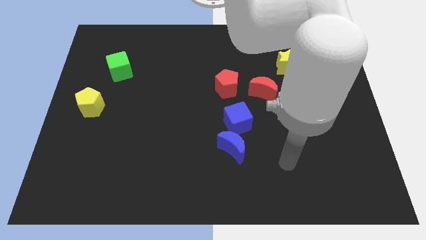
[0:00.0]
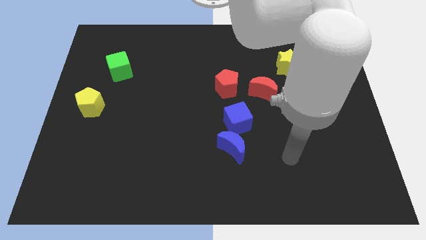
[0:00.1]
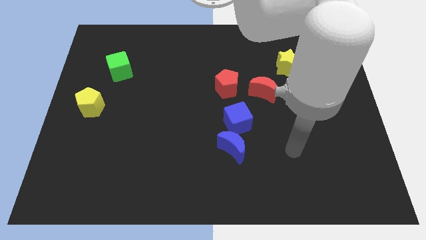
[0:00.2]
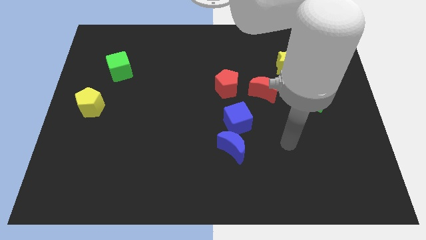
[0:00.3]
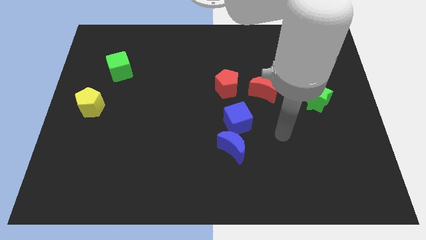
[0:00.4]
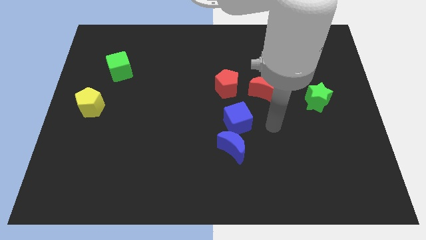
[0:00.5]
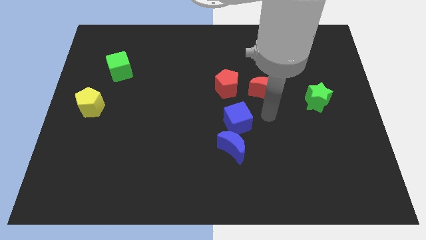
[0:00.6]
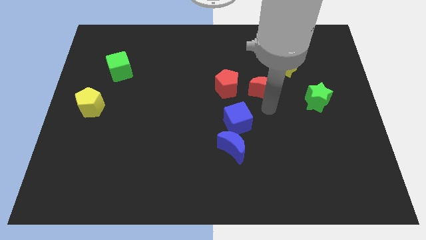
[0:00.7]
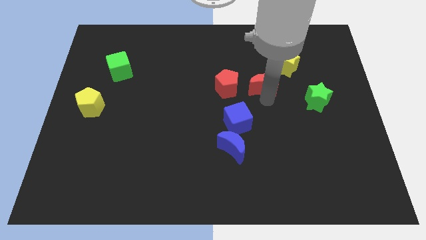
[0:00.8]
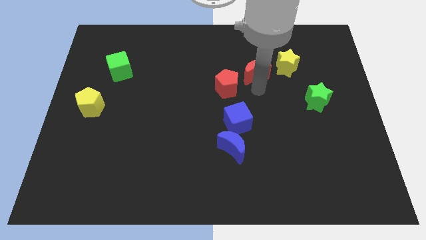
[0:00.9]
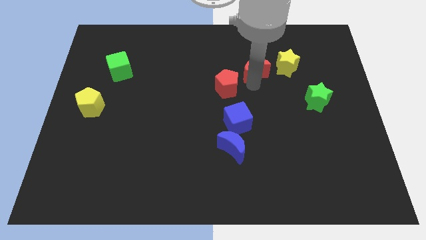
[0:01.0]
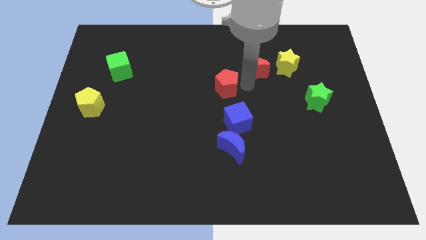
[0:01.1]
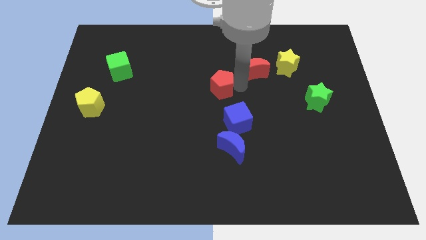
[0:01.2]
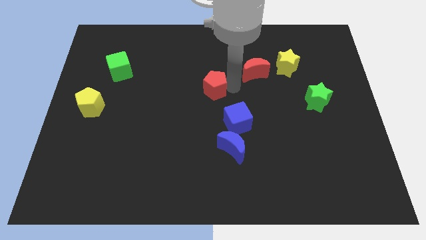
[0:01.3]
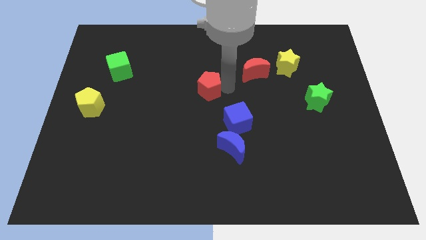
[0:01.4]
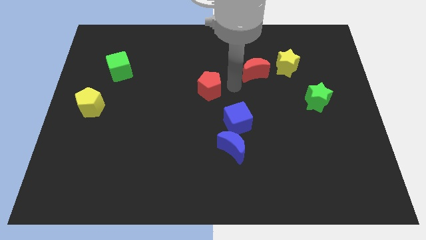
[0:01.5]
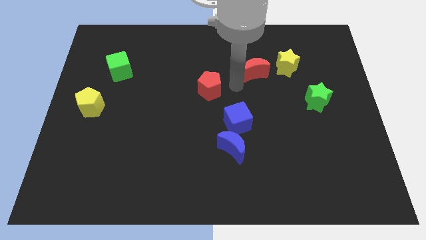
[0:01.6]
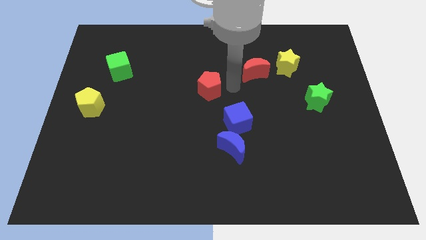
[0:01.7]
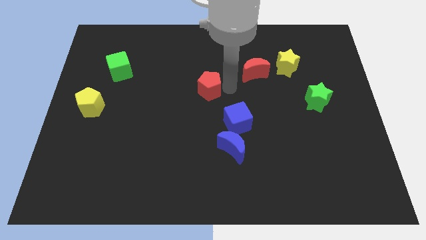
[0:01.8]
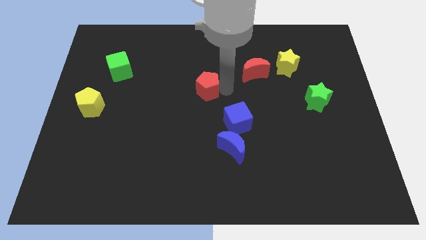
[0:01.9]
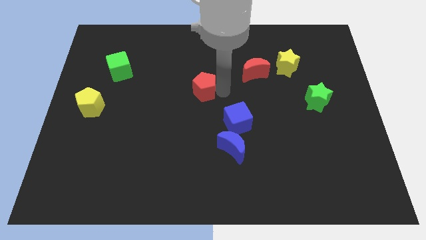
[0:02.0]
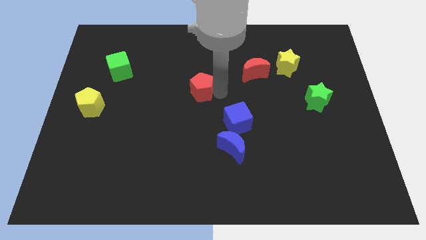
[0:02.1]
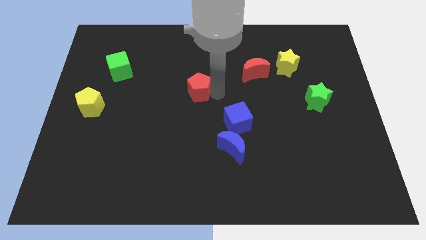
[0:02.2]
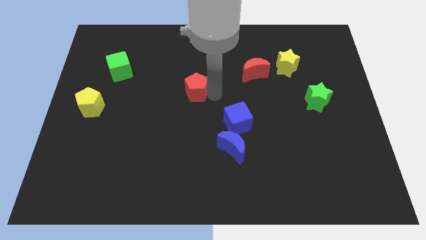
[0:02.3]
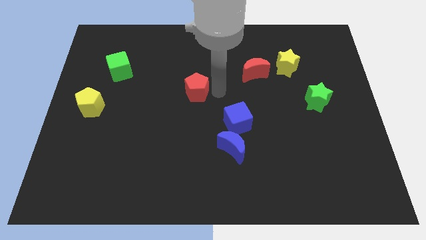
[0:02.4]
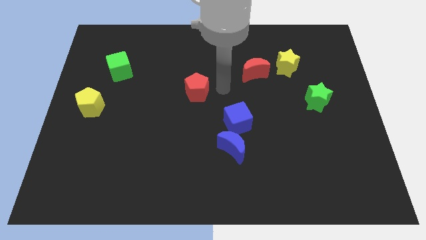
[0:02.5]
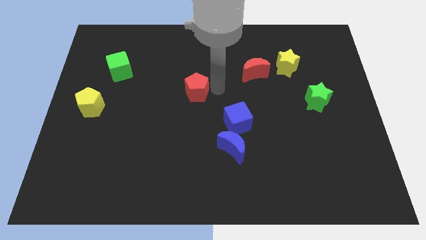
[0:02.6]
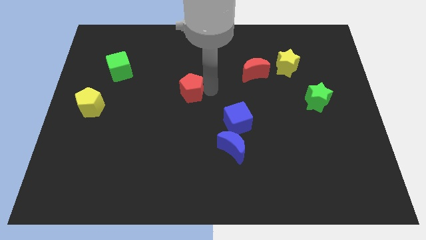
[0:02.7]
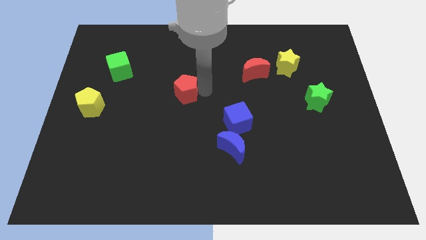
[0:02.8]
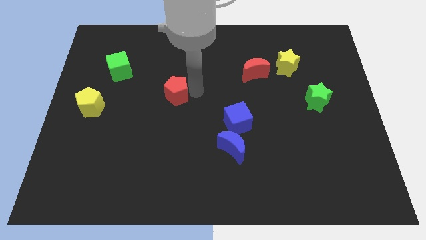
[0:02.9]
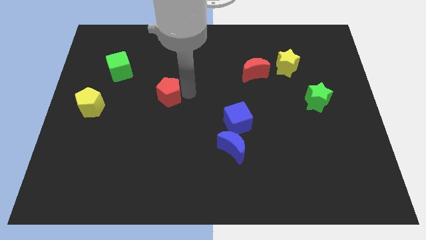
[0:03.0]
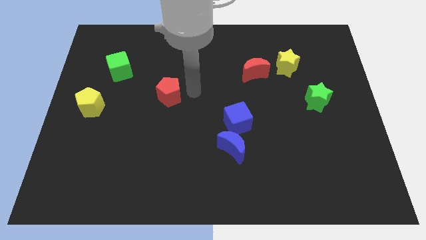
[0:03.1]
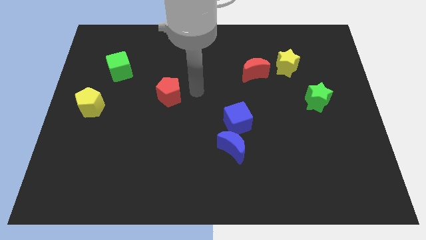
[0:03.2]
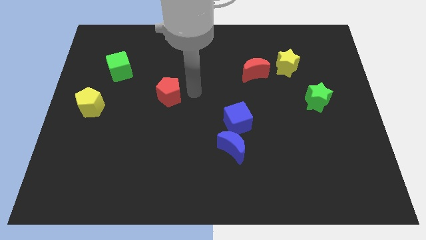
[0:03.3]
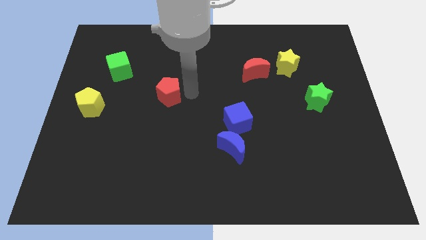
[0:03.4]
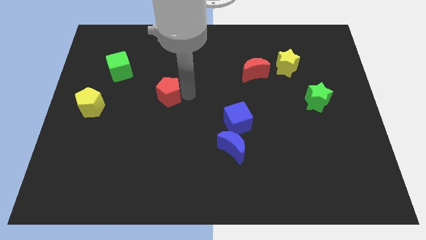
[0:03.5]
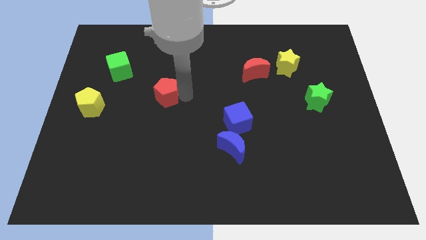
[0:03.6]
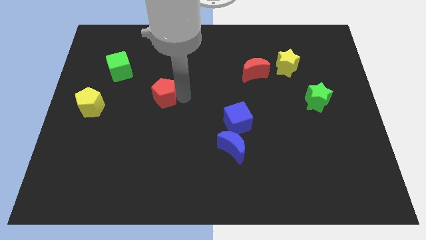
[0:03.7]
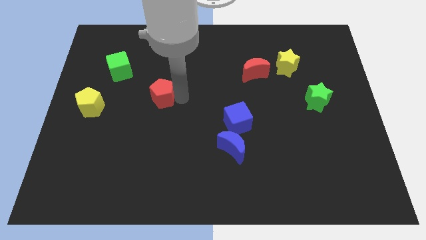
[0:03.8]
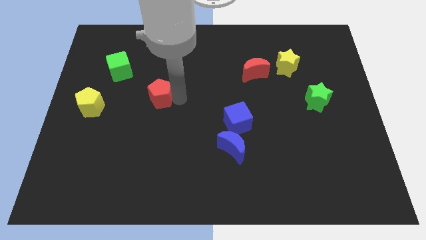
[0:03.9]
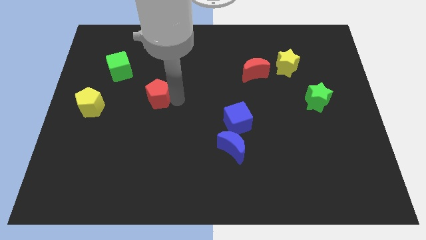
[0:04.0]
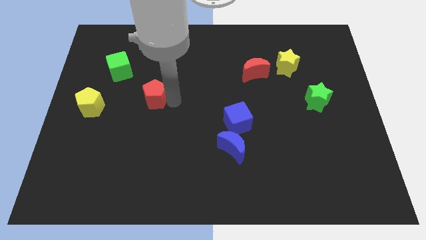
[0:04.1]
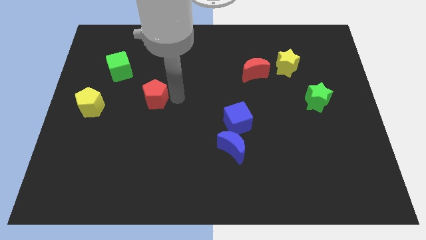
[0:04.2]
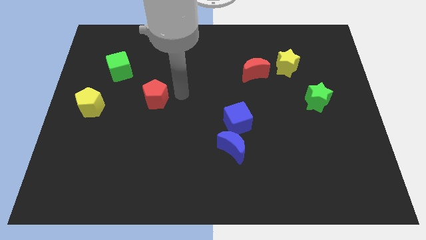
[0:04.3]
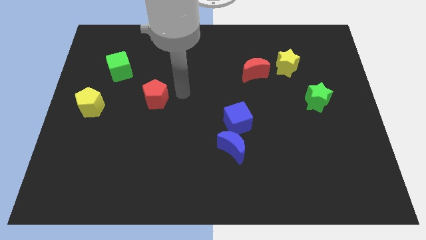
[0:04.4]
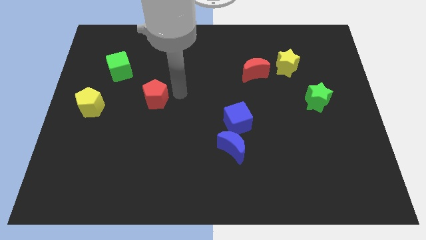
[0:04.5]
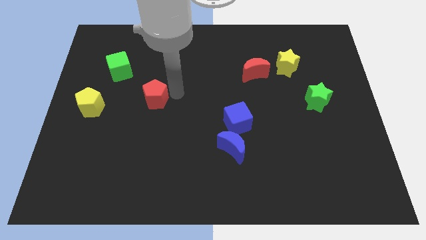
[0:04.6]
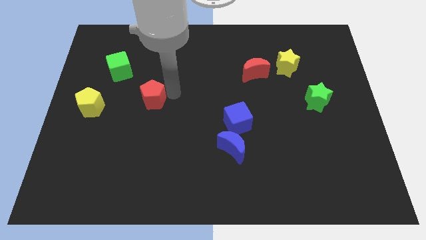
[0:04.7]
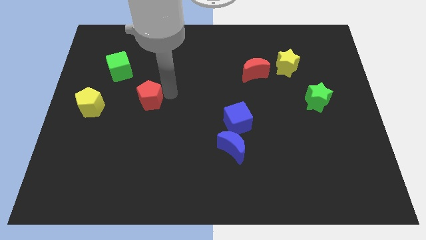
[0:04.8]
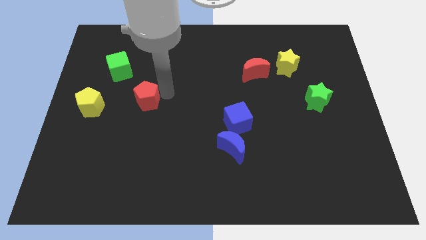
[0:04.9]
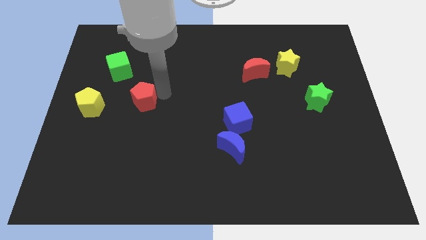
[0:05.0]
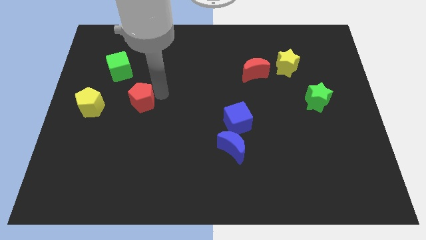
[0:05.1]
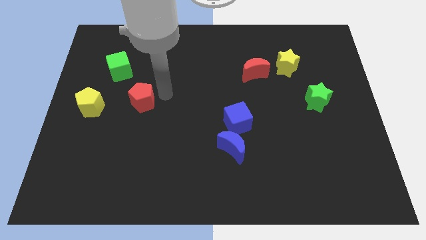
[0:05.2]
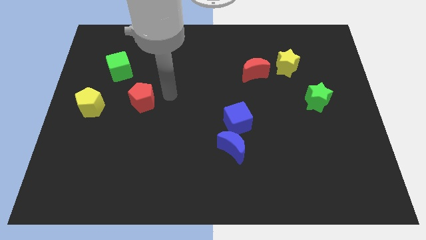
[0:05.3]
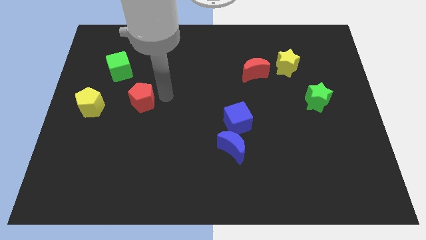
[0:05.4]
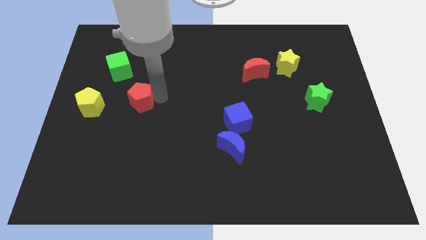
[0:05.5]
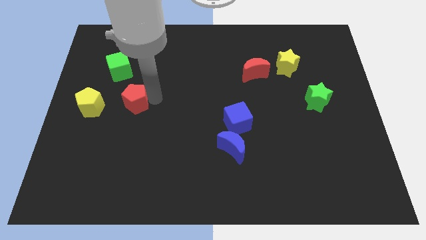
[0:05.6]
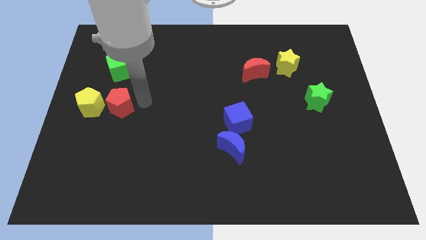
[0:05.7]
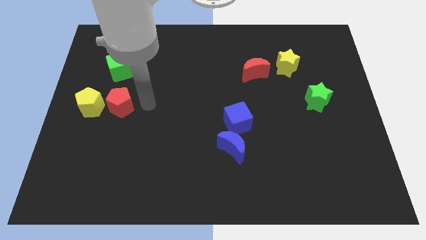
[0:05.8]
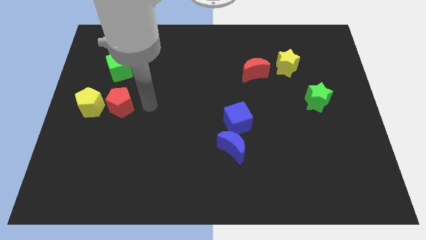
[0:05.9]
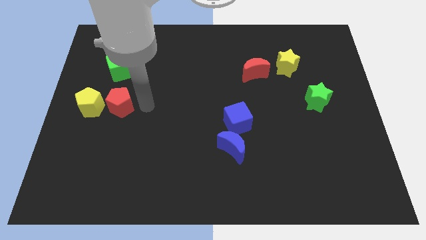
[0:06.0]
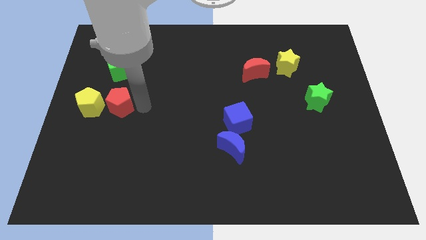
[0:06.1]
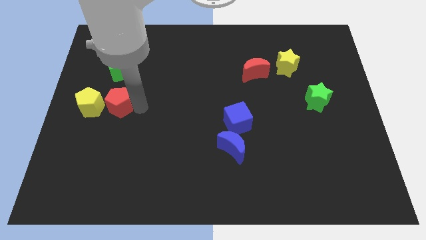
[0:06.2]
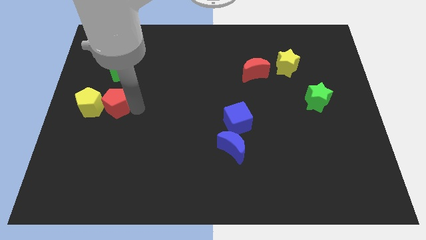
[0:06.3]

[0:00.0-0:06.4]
slide the red pentagon close to the yellow pentagon

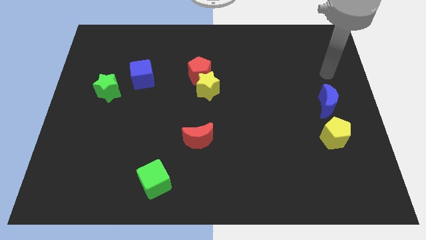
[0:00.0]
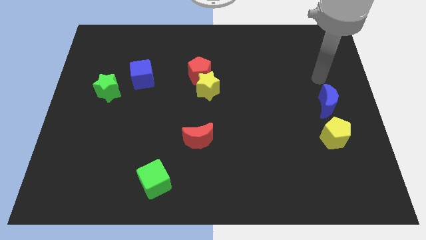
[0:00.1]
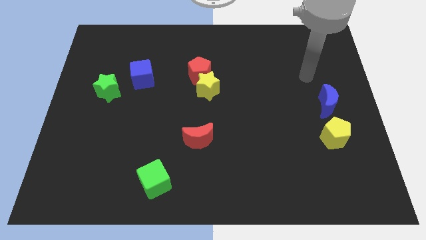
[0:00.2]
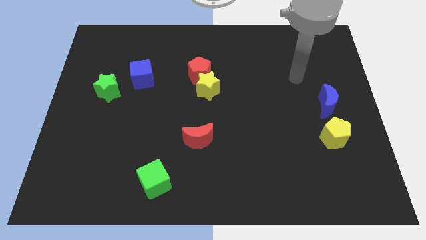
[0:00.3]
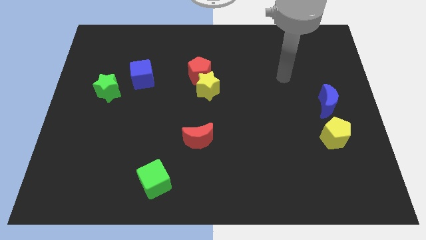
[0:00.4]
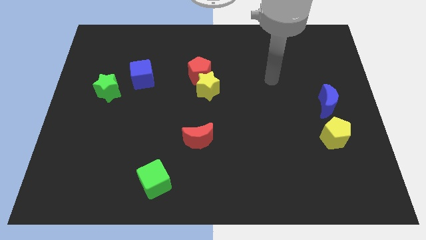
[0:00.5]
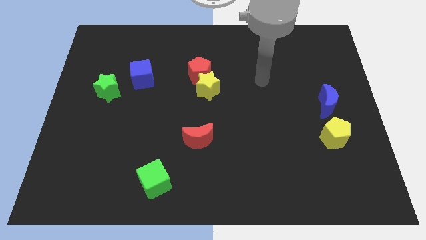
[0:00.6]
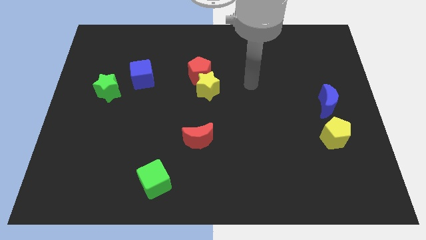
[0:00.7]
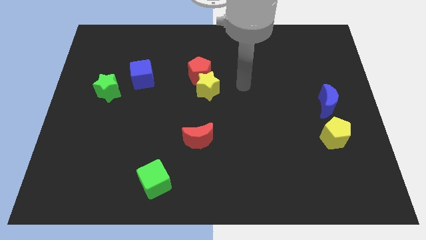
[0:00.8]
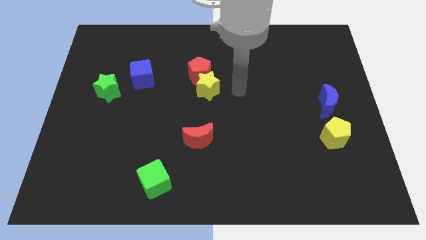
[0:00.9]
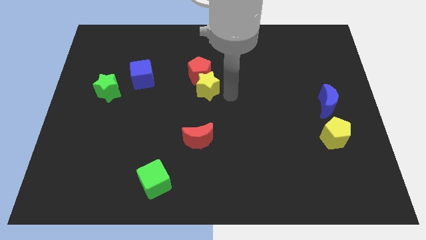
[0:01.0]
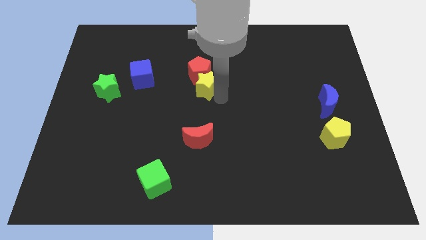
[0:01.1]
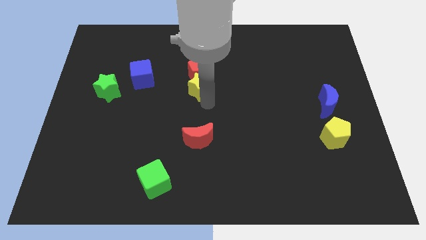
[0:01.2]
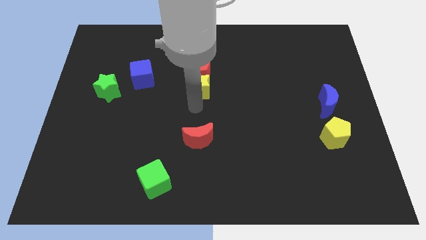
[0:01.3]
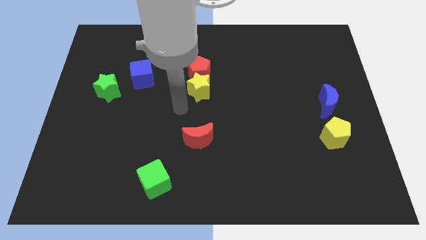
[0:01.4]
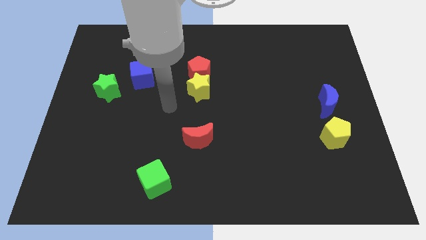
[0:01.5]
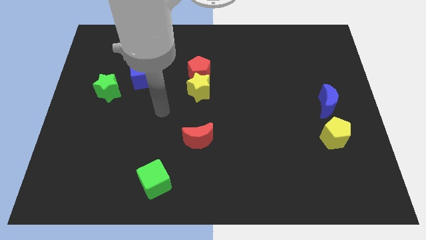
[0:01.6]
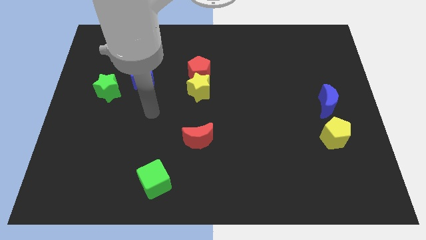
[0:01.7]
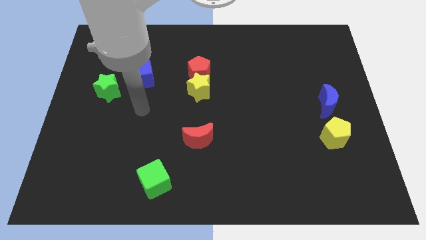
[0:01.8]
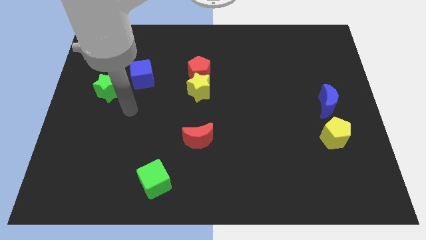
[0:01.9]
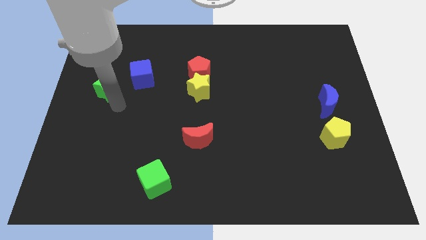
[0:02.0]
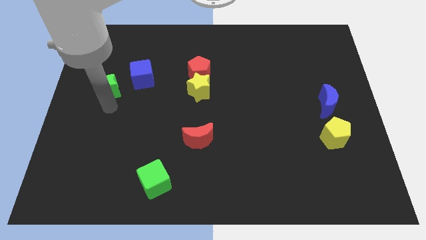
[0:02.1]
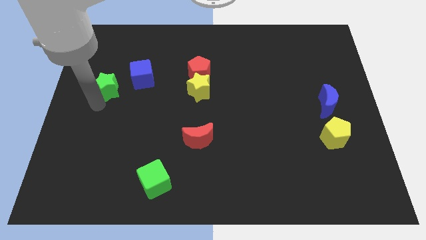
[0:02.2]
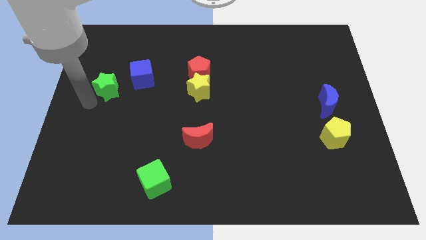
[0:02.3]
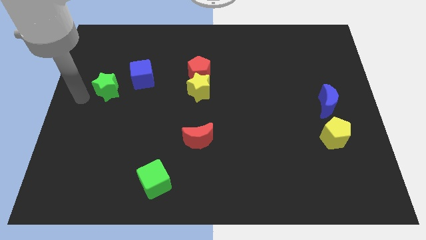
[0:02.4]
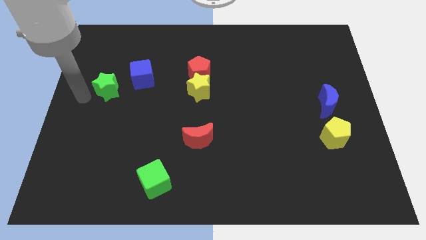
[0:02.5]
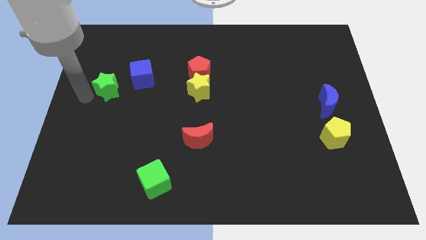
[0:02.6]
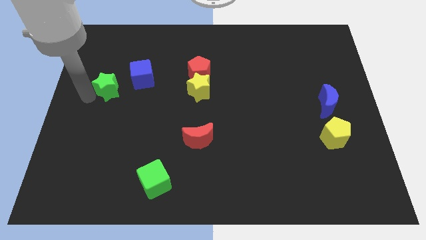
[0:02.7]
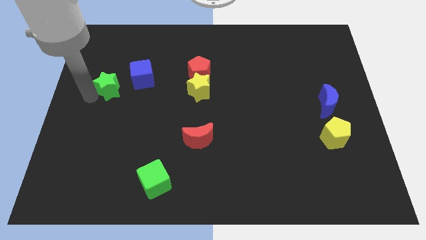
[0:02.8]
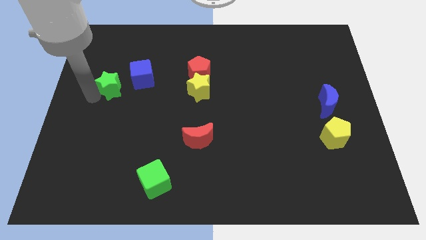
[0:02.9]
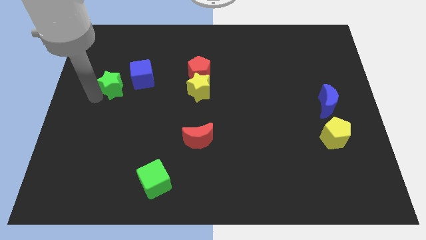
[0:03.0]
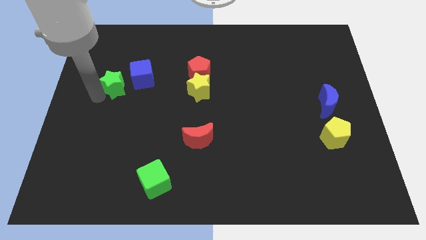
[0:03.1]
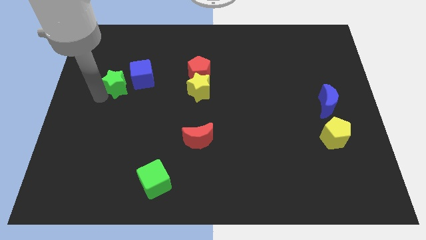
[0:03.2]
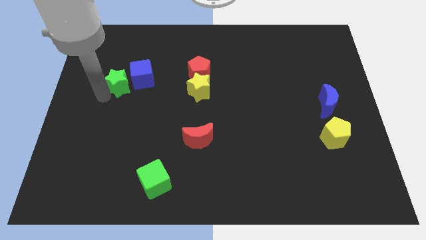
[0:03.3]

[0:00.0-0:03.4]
put the green star next to the blue cube
